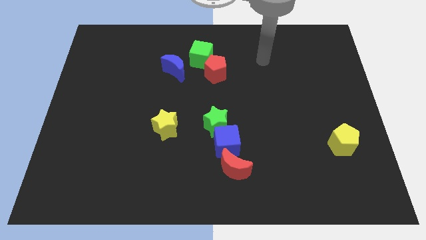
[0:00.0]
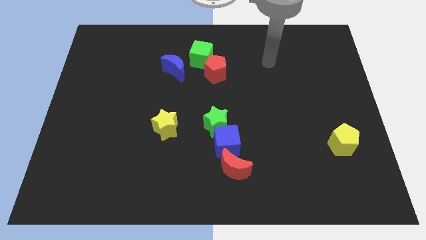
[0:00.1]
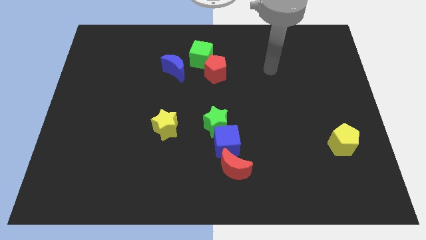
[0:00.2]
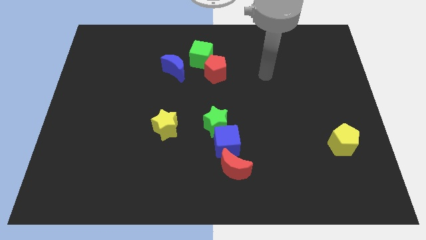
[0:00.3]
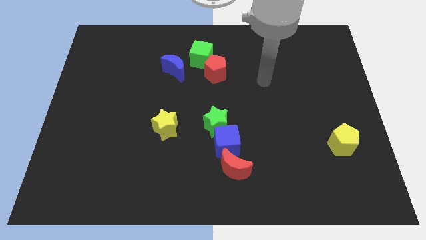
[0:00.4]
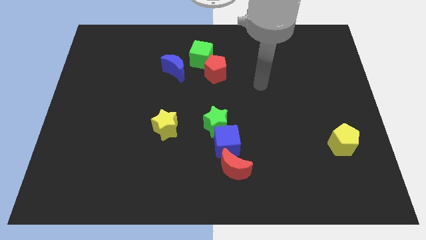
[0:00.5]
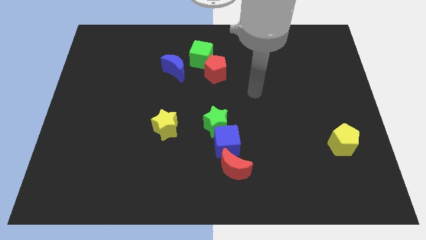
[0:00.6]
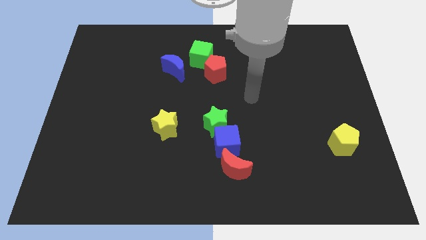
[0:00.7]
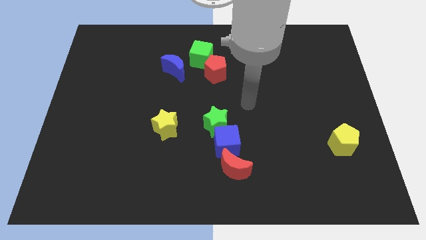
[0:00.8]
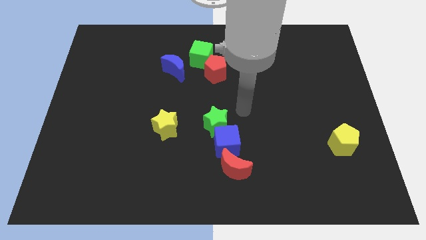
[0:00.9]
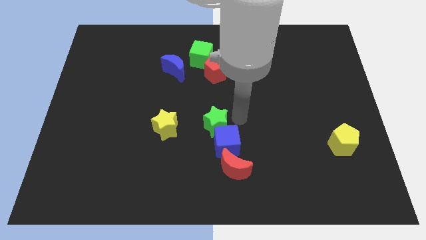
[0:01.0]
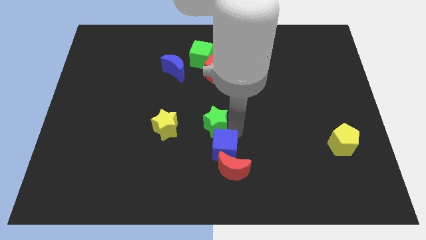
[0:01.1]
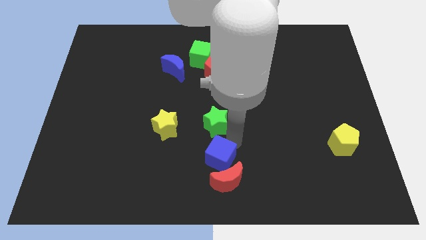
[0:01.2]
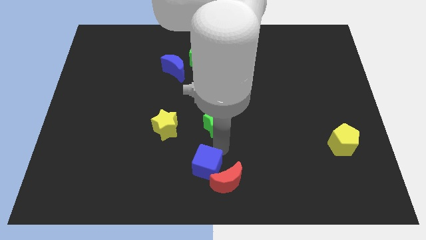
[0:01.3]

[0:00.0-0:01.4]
pull the green star apart from the blue cube

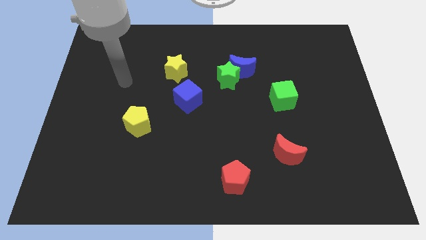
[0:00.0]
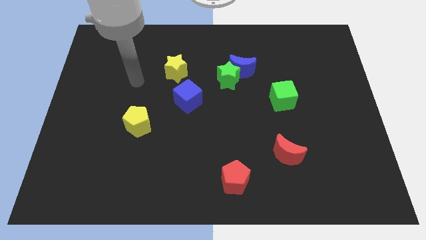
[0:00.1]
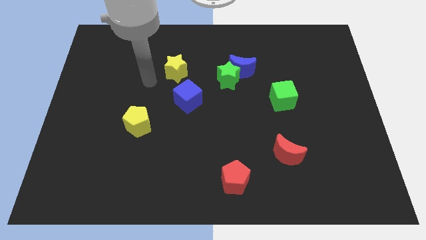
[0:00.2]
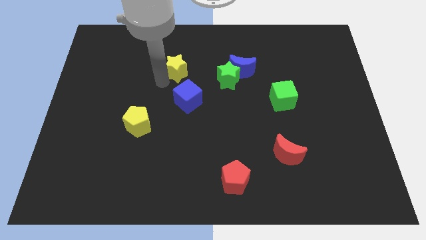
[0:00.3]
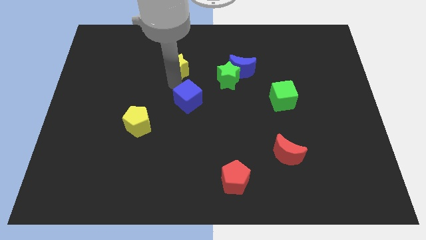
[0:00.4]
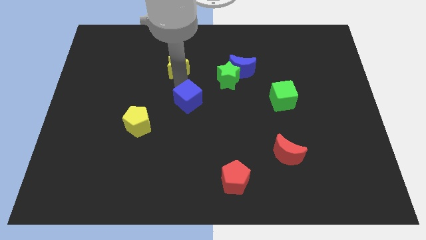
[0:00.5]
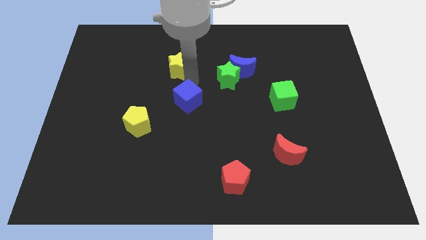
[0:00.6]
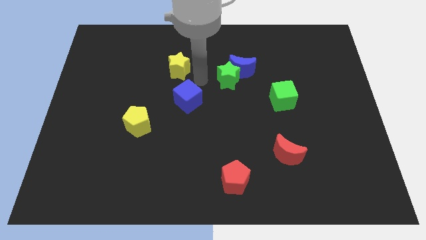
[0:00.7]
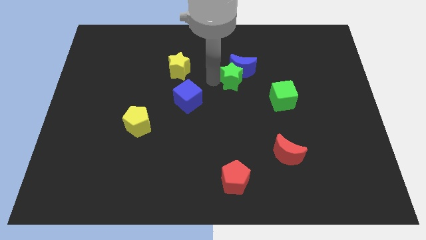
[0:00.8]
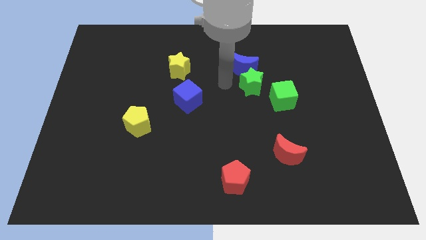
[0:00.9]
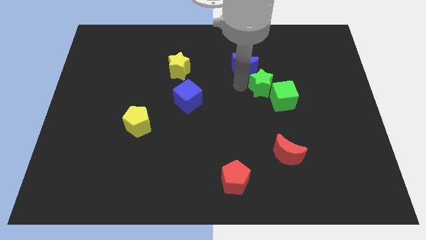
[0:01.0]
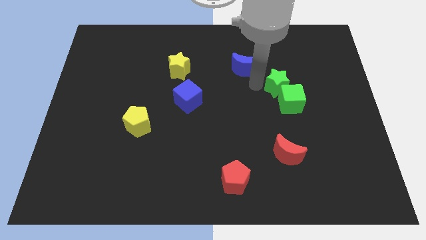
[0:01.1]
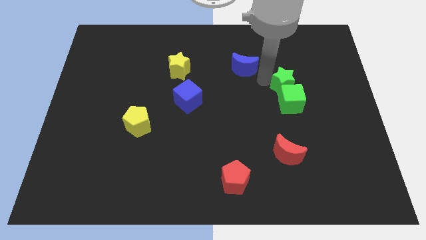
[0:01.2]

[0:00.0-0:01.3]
pull the blue moon apart from the green star

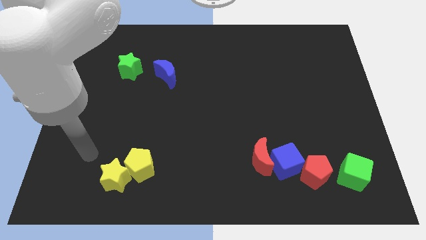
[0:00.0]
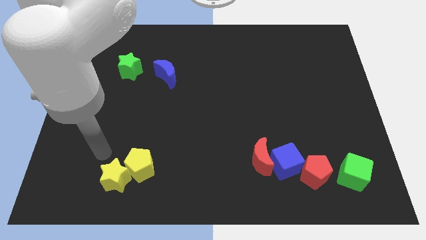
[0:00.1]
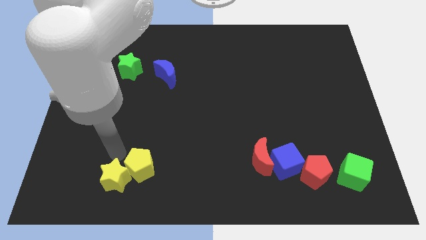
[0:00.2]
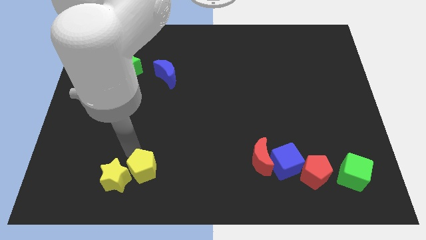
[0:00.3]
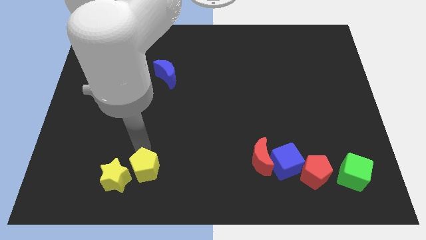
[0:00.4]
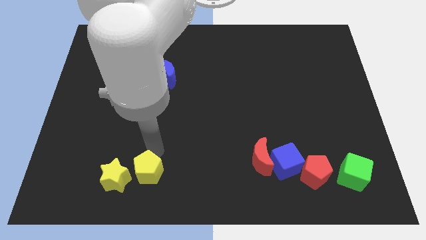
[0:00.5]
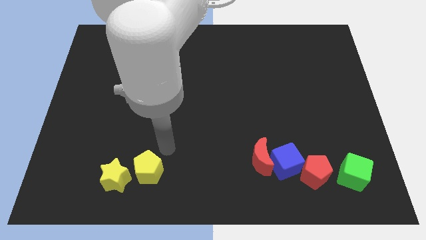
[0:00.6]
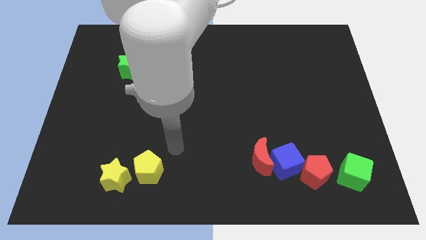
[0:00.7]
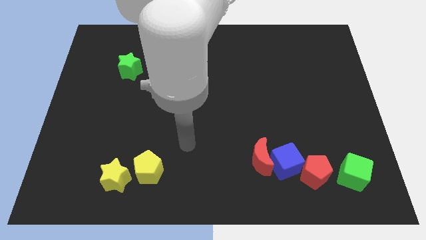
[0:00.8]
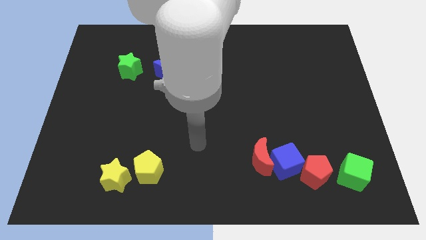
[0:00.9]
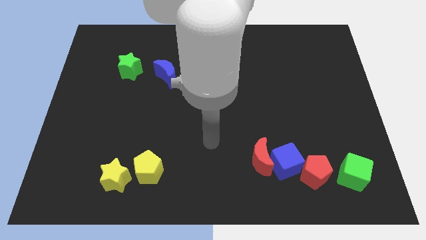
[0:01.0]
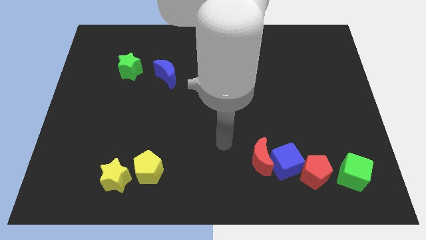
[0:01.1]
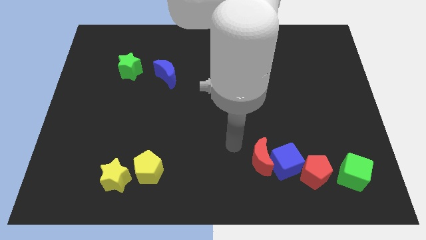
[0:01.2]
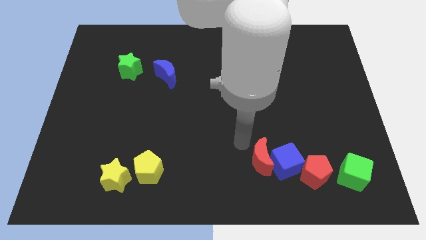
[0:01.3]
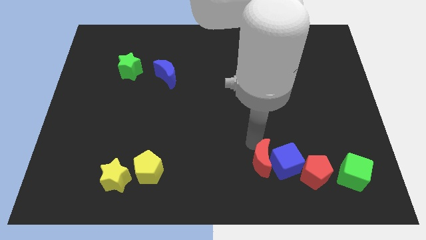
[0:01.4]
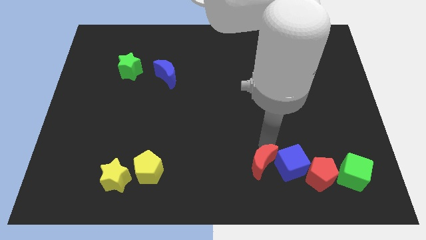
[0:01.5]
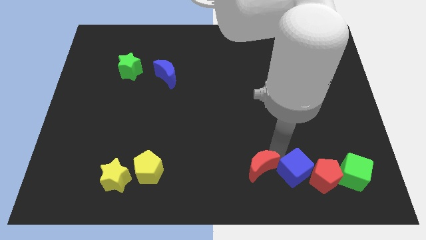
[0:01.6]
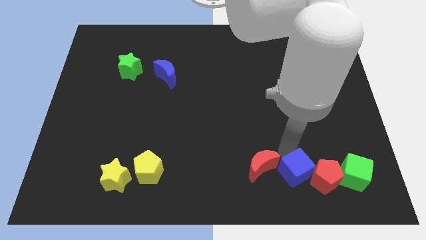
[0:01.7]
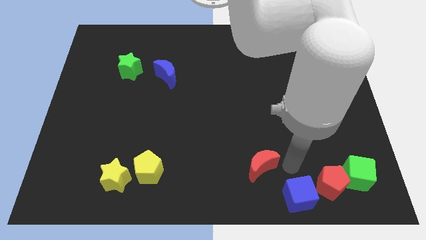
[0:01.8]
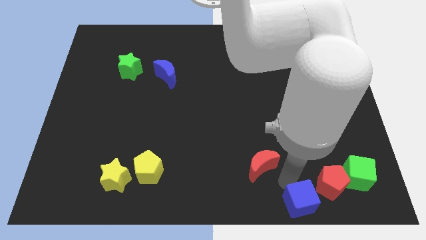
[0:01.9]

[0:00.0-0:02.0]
pull the red moon apart from the blue cube

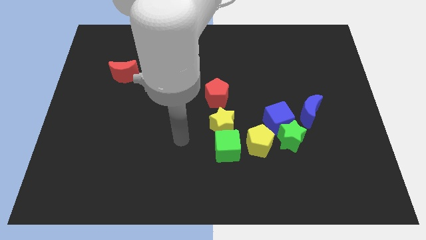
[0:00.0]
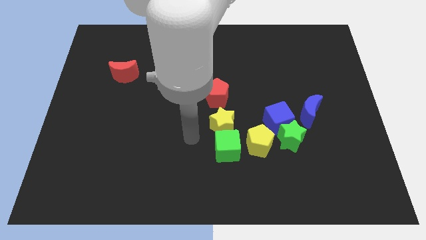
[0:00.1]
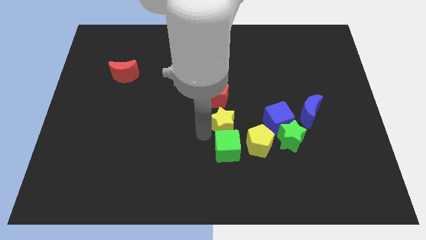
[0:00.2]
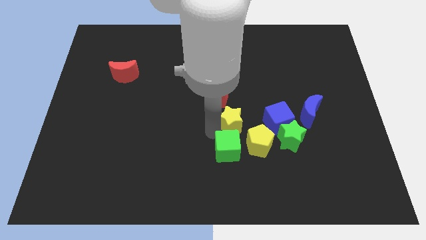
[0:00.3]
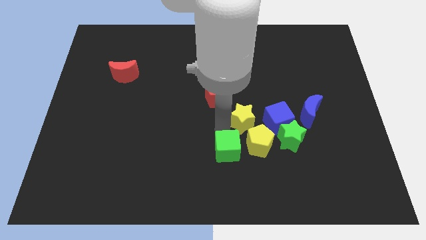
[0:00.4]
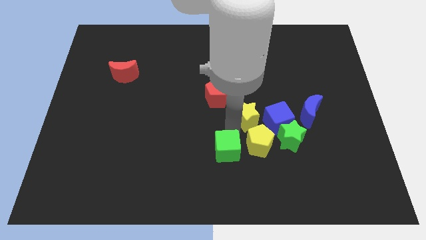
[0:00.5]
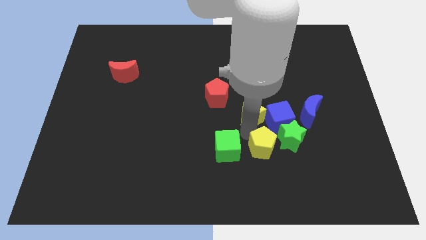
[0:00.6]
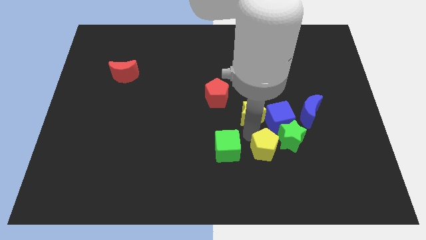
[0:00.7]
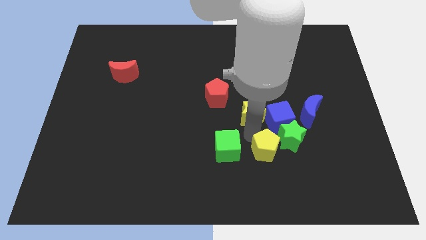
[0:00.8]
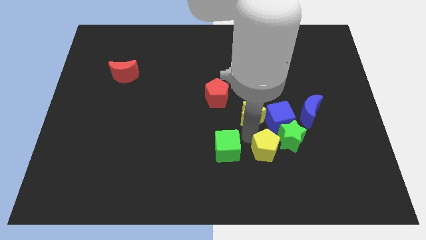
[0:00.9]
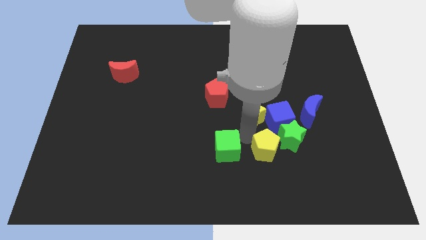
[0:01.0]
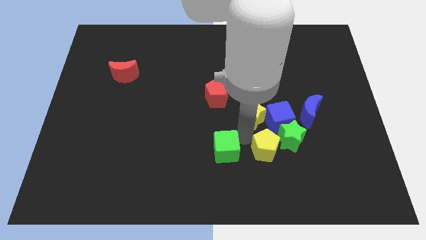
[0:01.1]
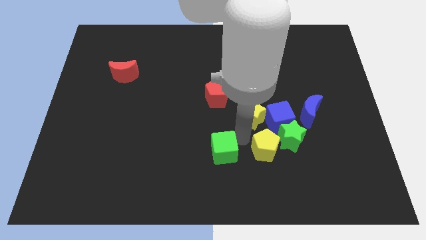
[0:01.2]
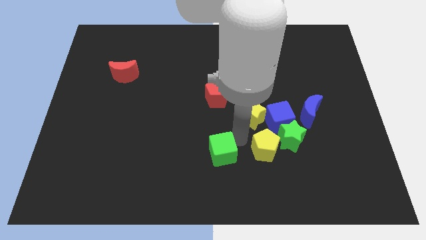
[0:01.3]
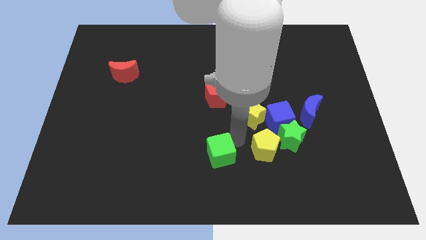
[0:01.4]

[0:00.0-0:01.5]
separate the green cube from the yellow star and yellow pentagon

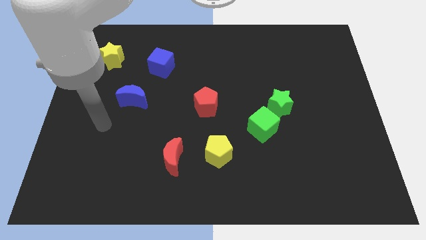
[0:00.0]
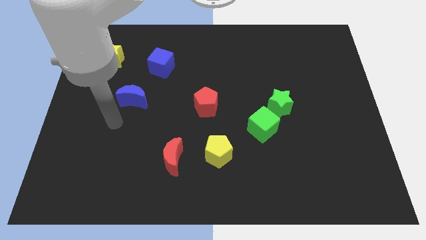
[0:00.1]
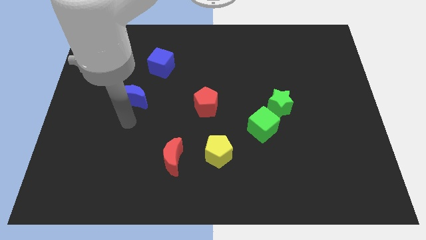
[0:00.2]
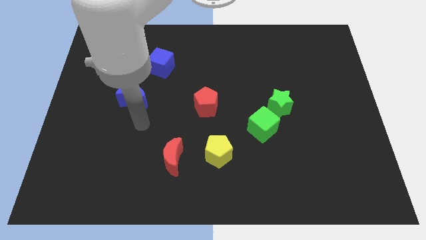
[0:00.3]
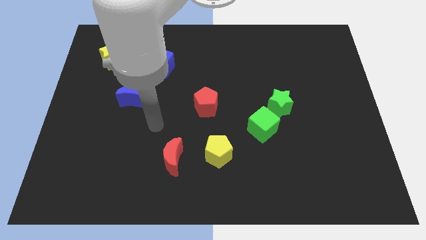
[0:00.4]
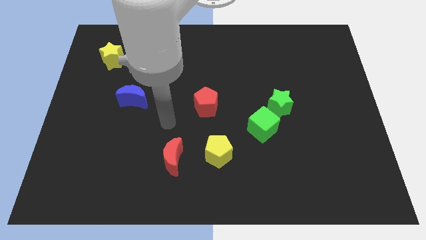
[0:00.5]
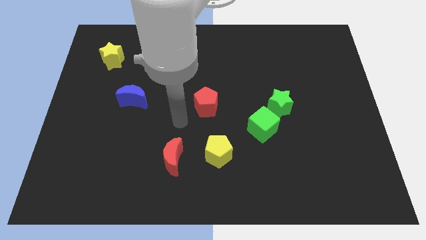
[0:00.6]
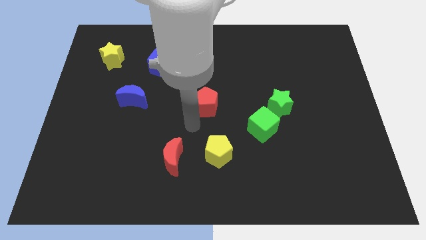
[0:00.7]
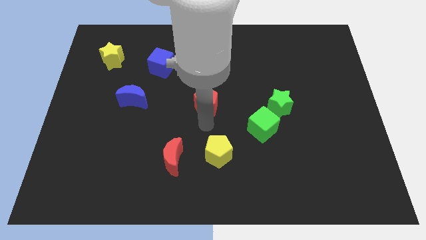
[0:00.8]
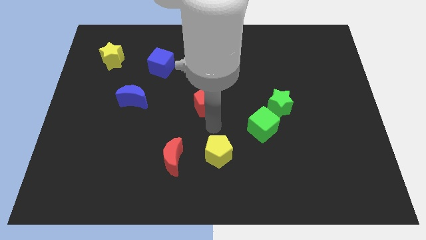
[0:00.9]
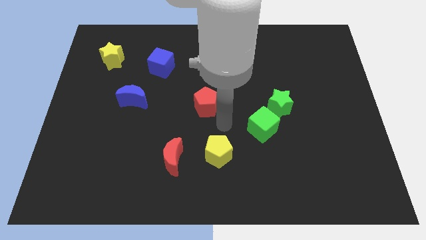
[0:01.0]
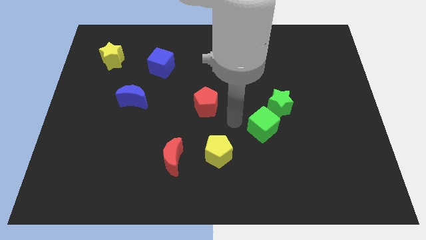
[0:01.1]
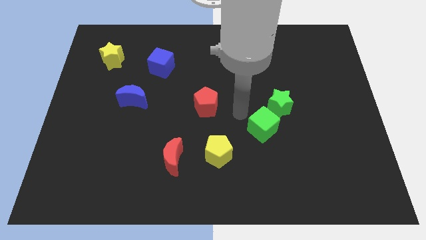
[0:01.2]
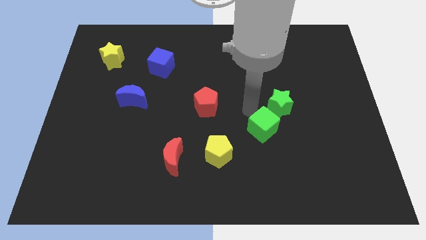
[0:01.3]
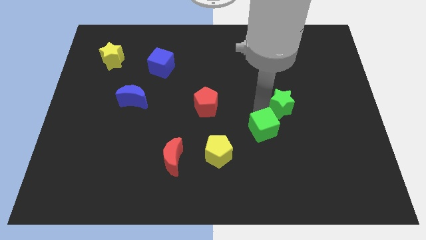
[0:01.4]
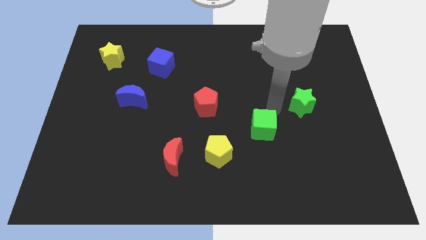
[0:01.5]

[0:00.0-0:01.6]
pull the green cube apart from the green star

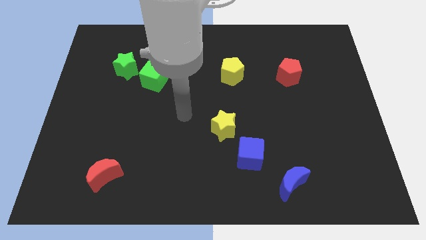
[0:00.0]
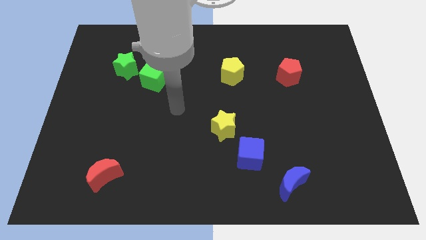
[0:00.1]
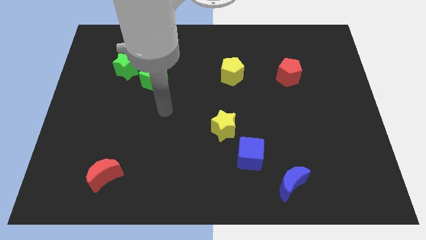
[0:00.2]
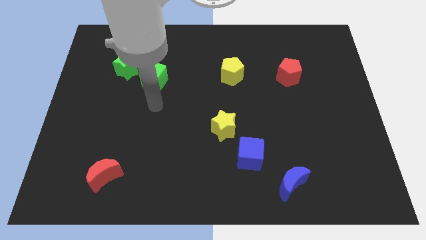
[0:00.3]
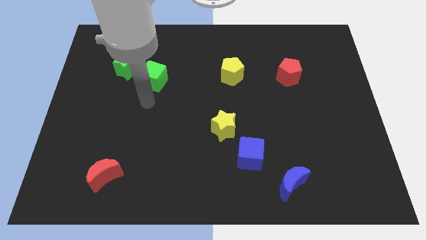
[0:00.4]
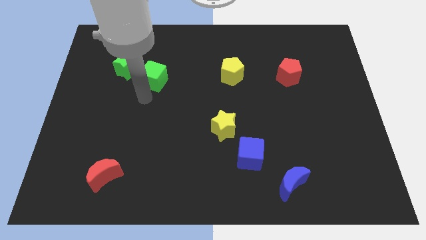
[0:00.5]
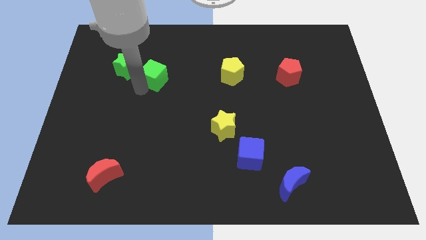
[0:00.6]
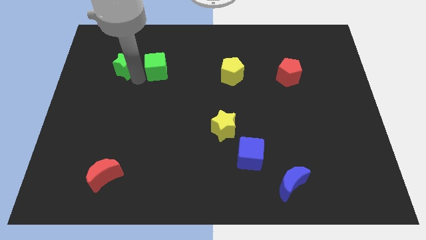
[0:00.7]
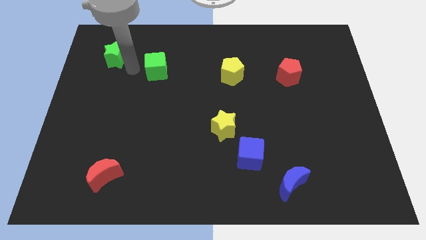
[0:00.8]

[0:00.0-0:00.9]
separate the green cube from the green star

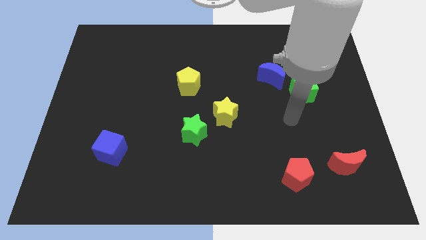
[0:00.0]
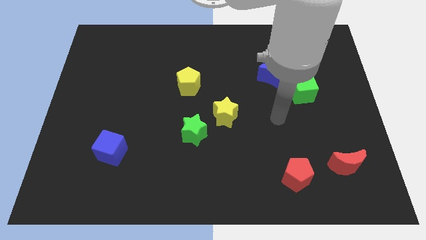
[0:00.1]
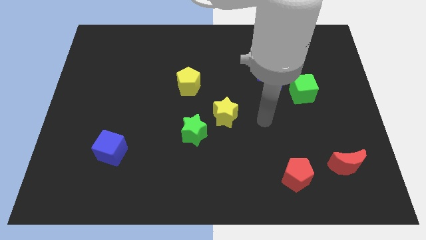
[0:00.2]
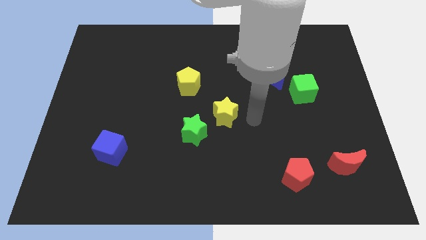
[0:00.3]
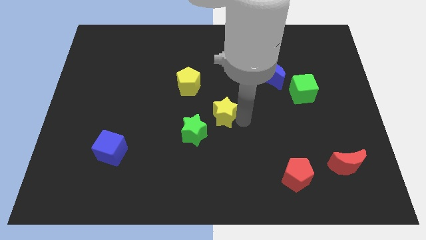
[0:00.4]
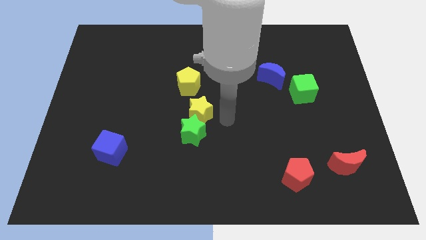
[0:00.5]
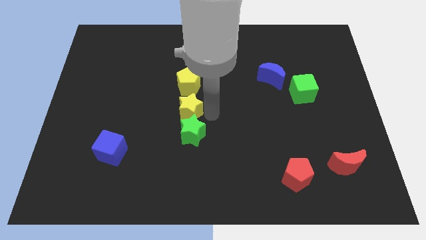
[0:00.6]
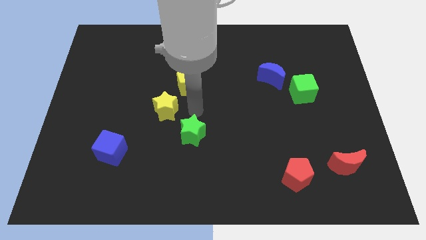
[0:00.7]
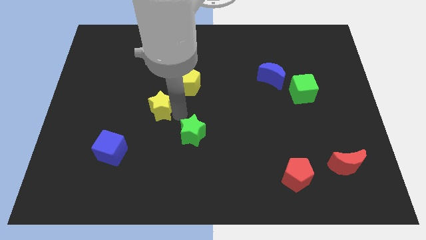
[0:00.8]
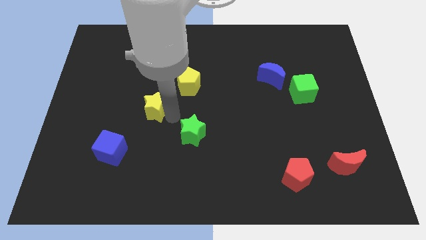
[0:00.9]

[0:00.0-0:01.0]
pull the green star apart from the yellow star
